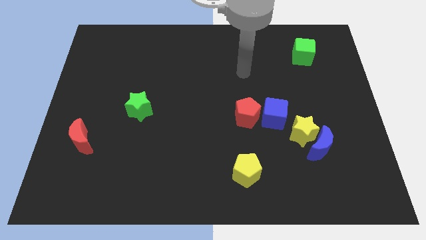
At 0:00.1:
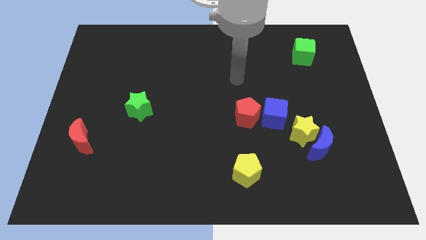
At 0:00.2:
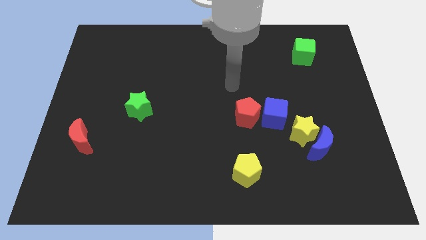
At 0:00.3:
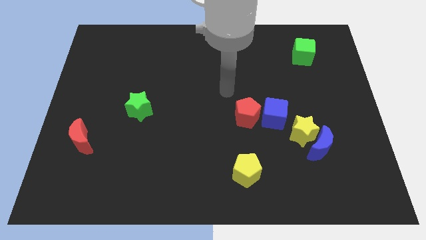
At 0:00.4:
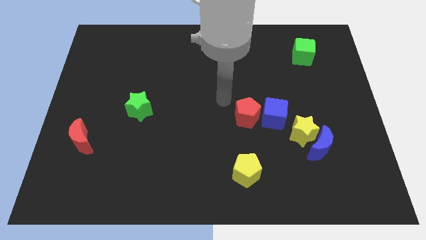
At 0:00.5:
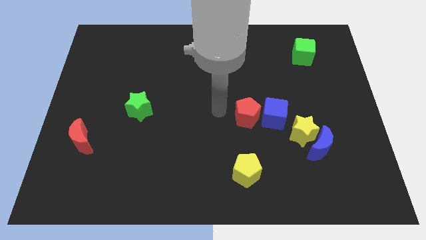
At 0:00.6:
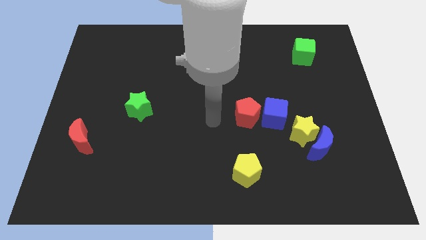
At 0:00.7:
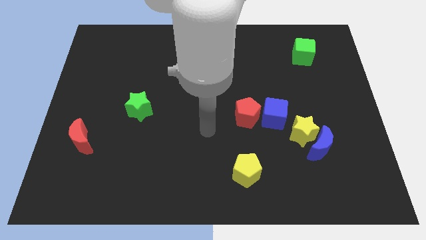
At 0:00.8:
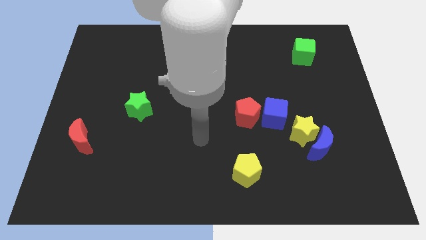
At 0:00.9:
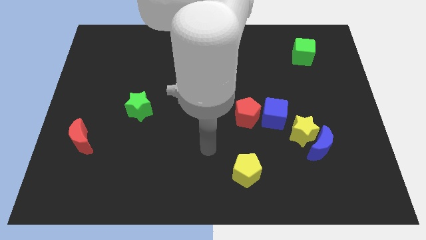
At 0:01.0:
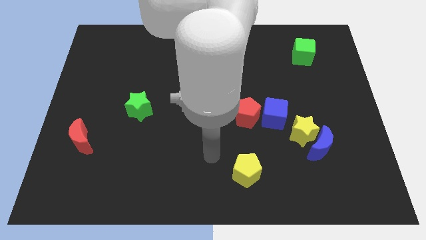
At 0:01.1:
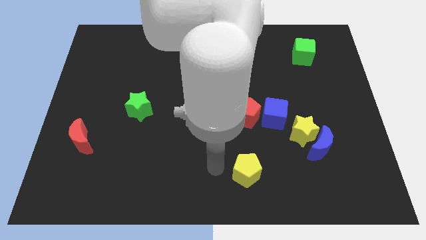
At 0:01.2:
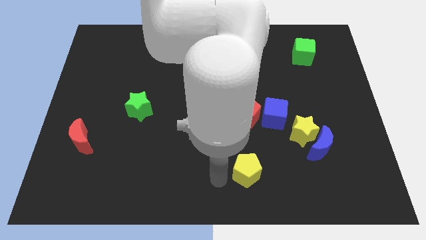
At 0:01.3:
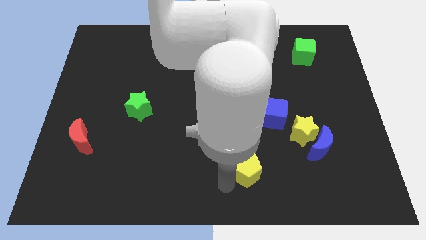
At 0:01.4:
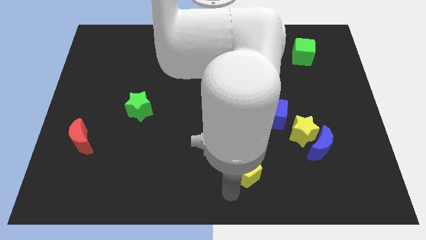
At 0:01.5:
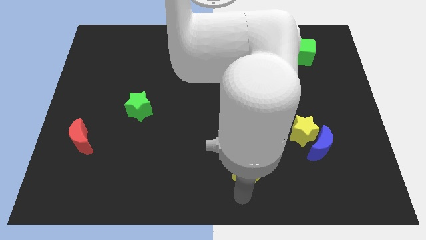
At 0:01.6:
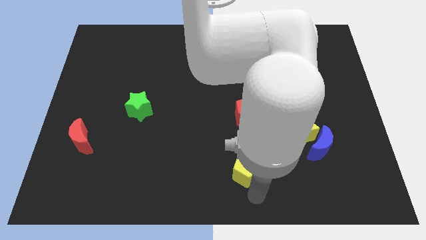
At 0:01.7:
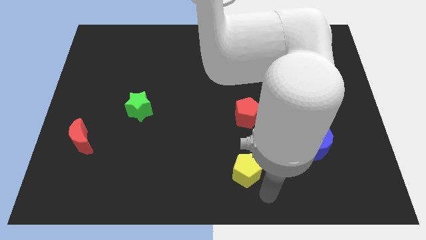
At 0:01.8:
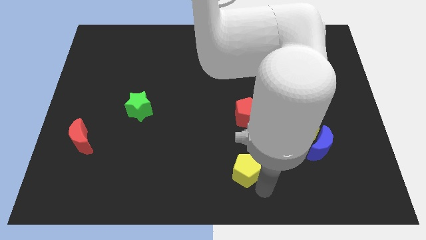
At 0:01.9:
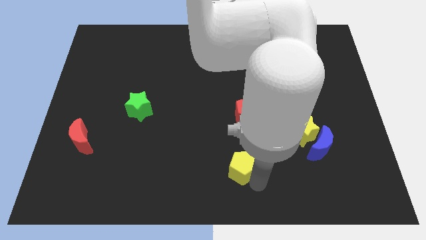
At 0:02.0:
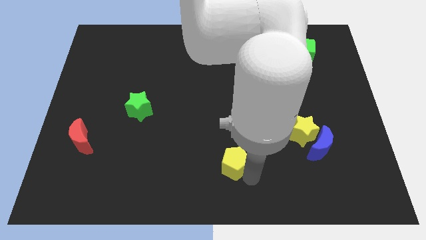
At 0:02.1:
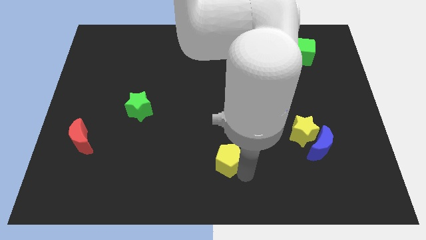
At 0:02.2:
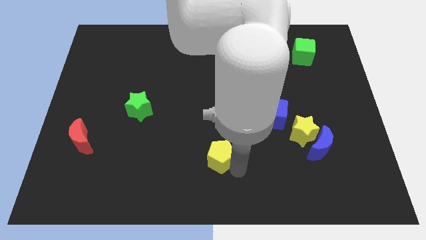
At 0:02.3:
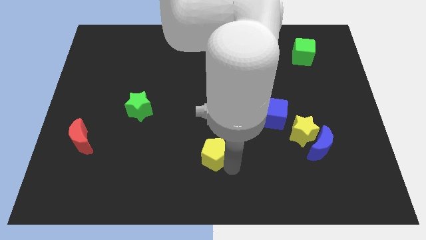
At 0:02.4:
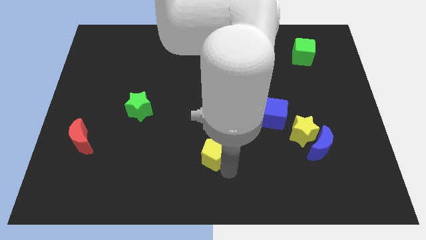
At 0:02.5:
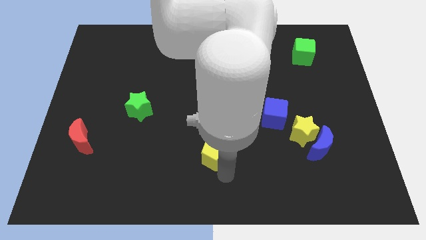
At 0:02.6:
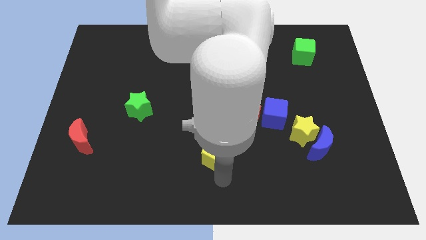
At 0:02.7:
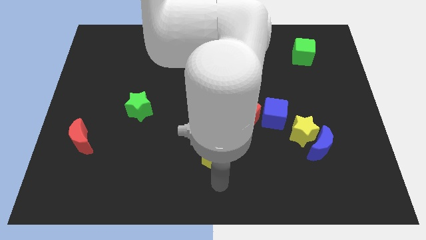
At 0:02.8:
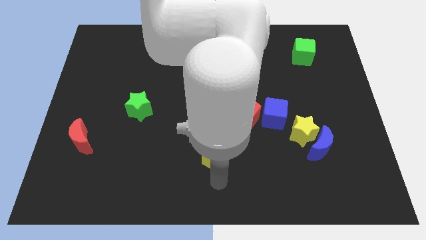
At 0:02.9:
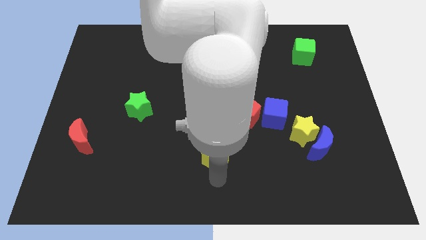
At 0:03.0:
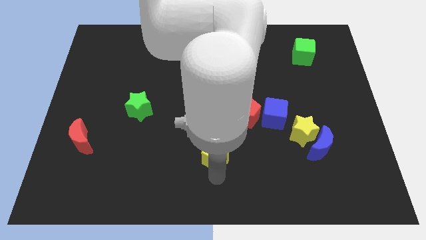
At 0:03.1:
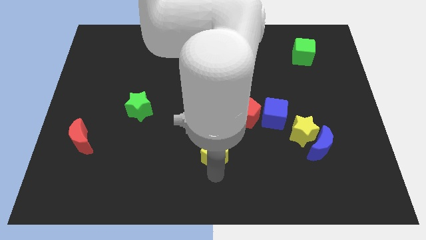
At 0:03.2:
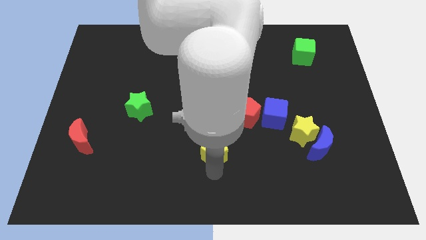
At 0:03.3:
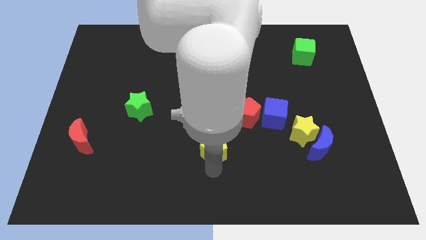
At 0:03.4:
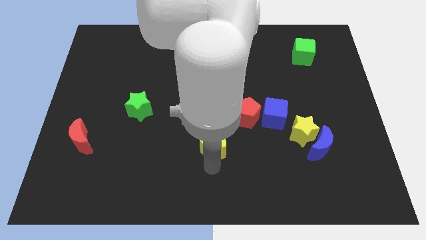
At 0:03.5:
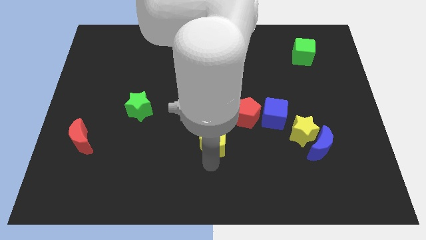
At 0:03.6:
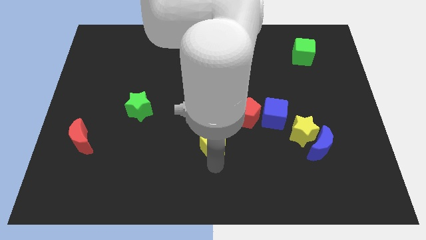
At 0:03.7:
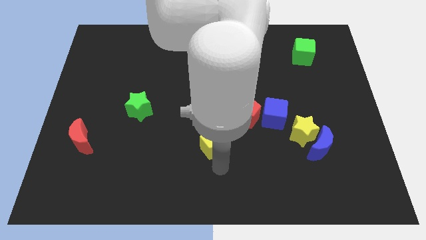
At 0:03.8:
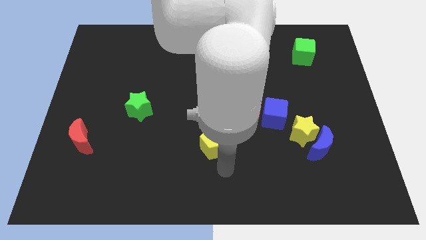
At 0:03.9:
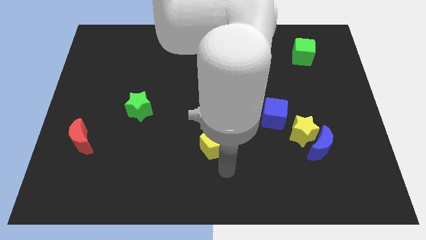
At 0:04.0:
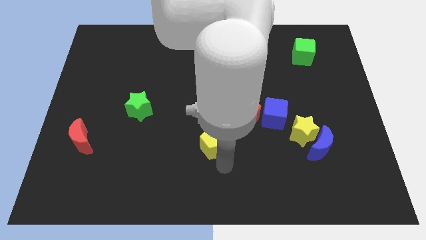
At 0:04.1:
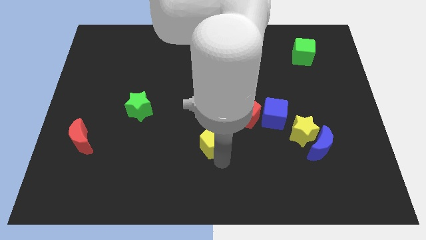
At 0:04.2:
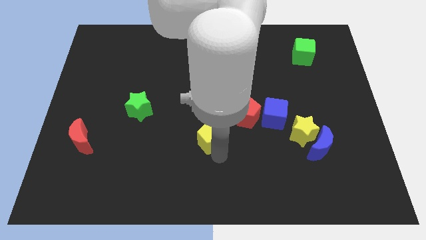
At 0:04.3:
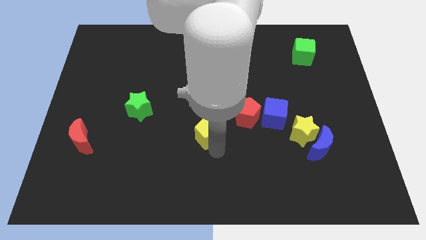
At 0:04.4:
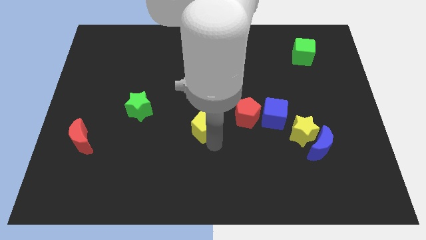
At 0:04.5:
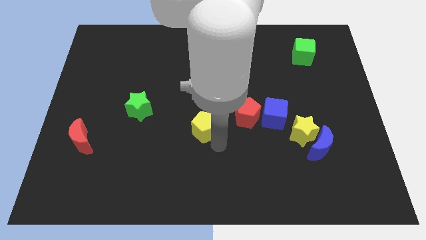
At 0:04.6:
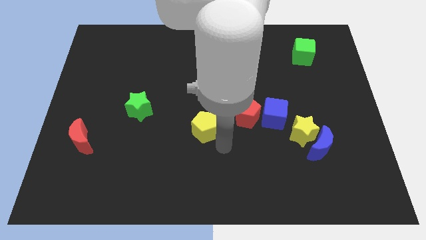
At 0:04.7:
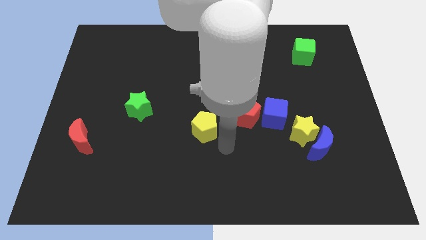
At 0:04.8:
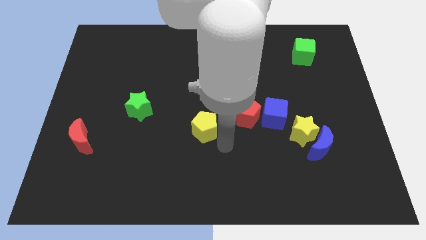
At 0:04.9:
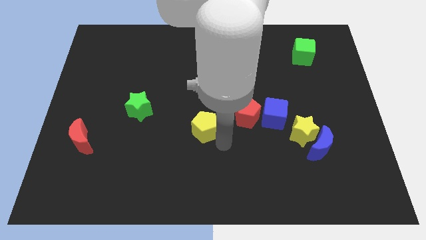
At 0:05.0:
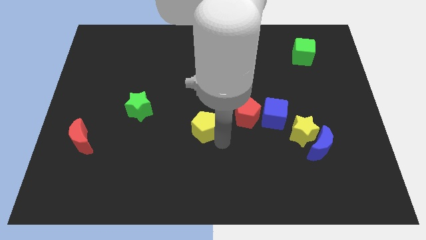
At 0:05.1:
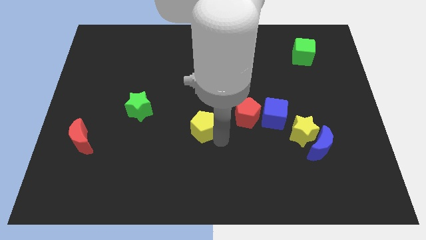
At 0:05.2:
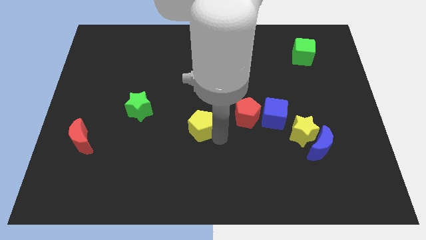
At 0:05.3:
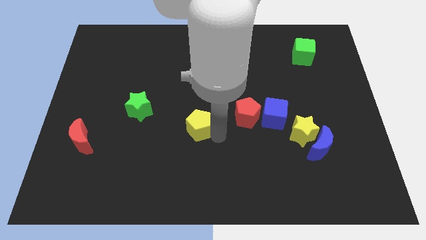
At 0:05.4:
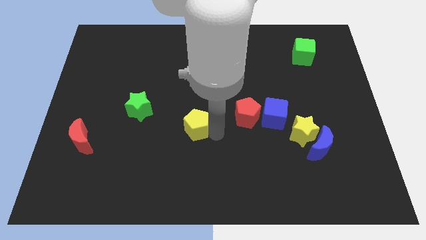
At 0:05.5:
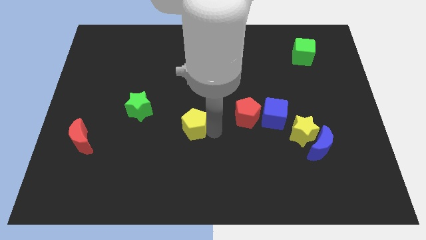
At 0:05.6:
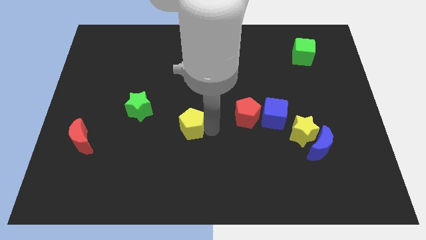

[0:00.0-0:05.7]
move the yellow pentagon just right of the green star

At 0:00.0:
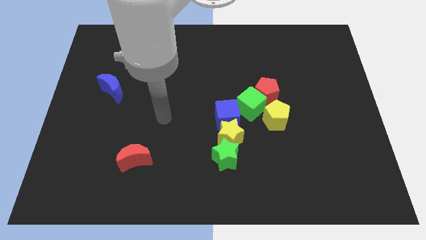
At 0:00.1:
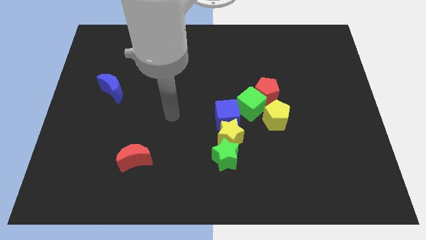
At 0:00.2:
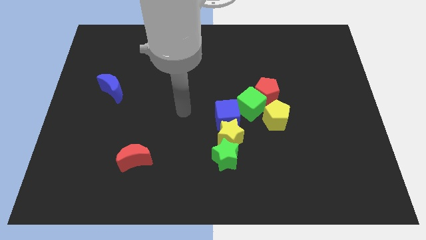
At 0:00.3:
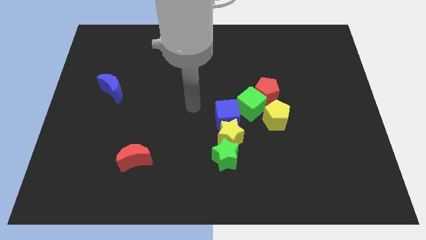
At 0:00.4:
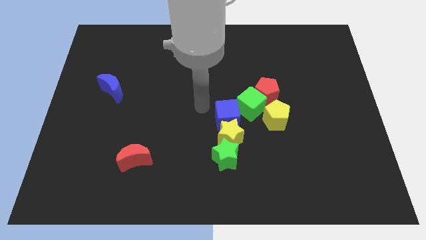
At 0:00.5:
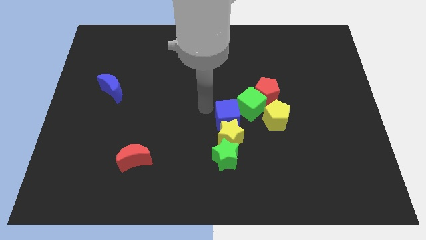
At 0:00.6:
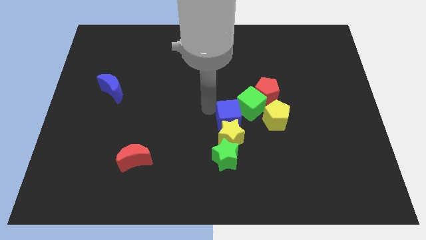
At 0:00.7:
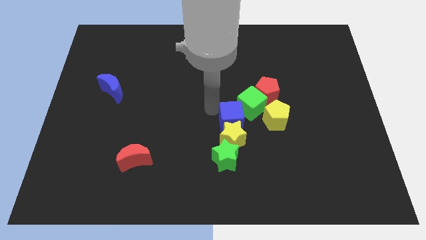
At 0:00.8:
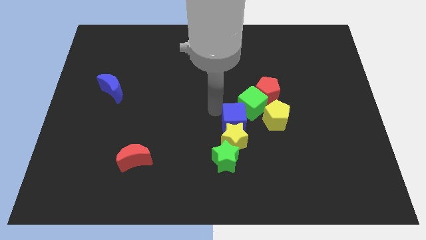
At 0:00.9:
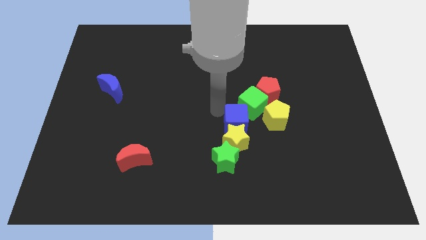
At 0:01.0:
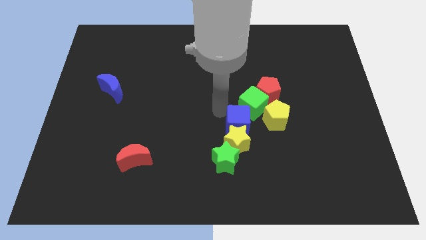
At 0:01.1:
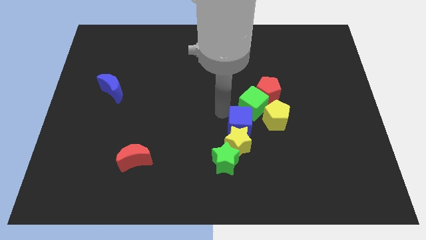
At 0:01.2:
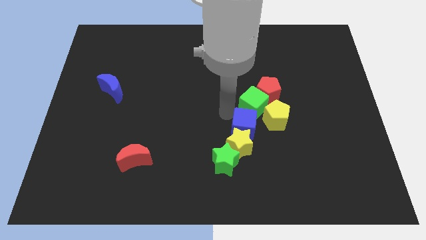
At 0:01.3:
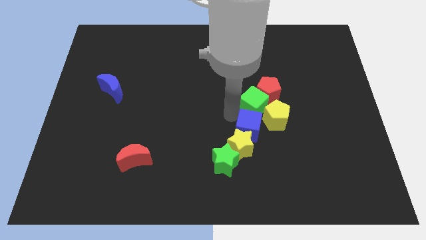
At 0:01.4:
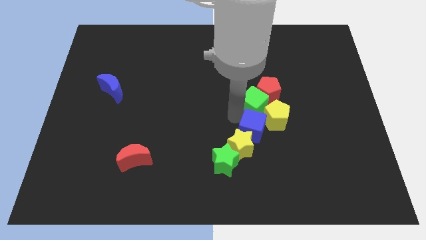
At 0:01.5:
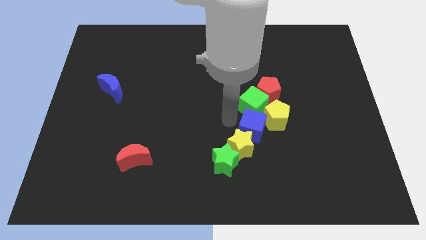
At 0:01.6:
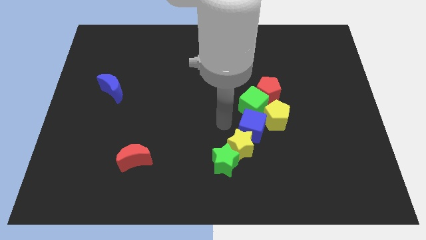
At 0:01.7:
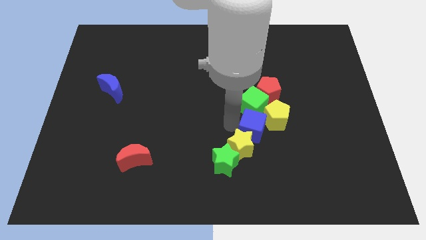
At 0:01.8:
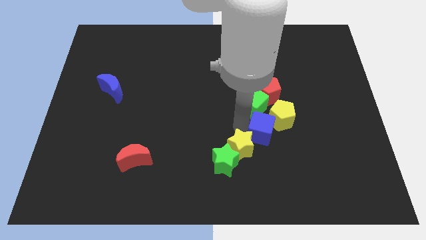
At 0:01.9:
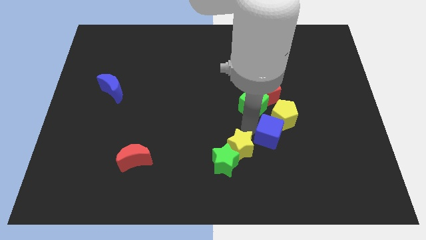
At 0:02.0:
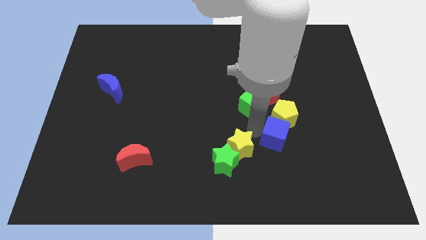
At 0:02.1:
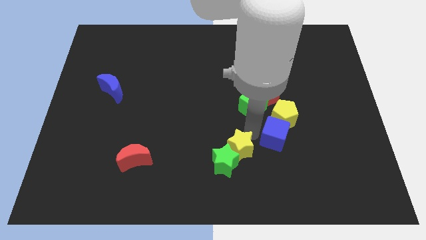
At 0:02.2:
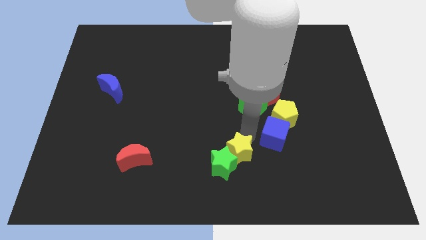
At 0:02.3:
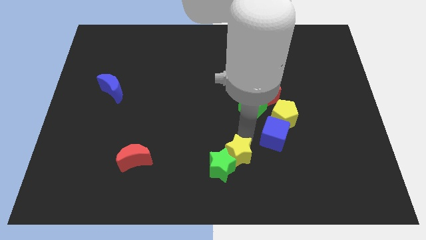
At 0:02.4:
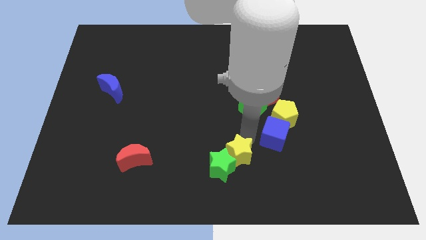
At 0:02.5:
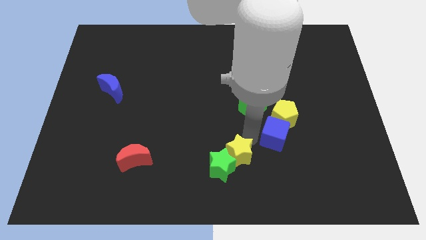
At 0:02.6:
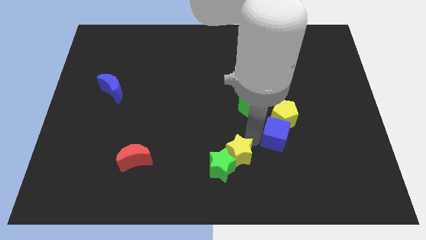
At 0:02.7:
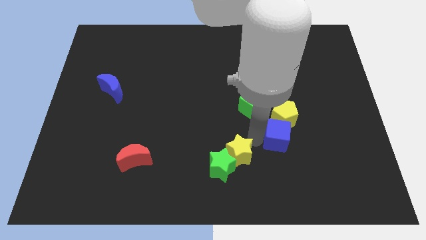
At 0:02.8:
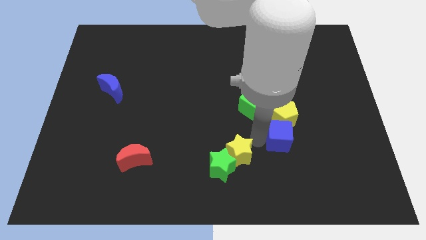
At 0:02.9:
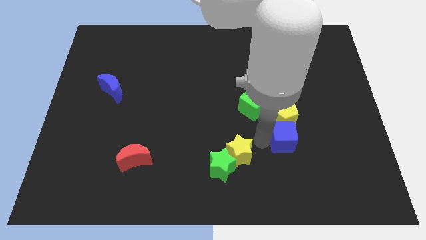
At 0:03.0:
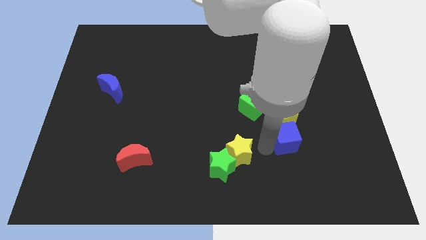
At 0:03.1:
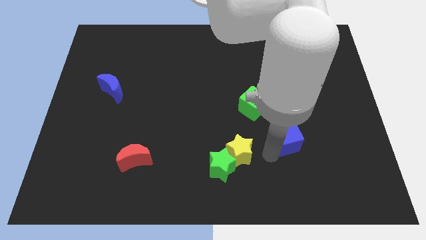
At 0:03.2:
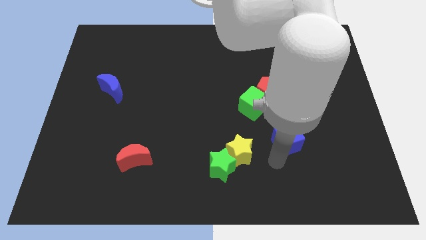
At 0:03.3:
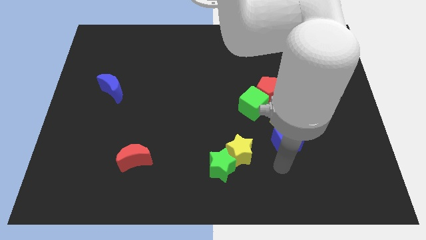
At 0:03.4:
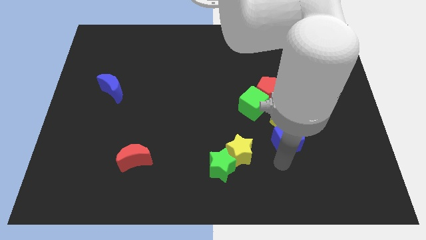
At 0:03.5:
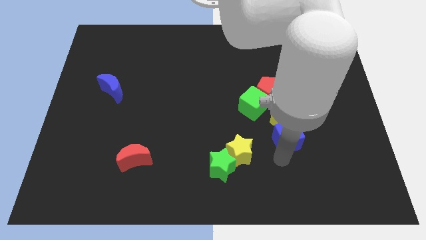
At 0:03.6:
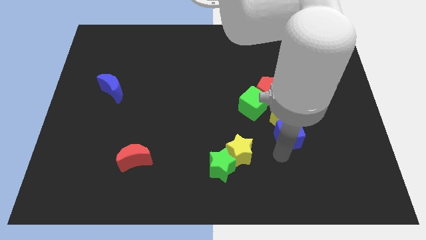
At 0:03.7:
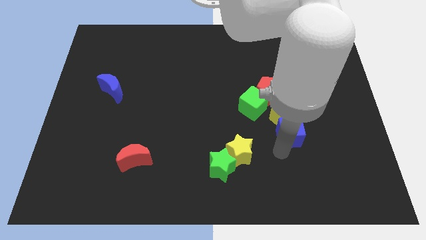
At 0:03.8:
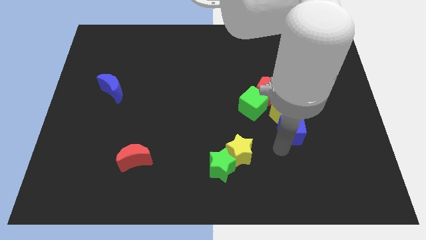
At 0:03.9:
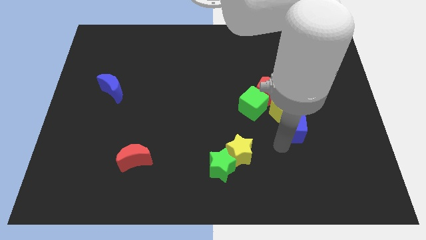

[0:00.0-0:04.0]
put the blue cube to the bottom right of the red pentagon
